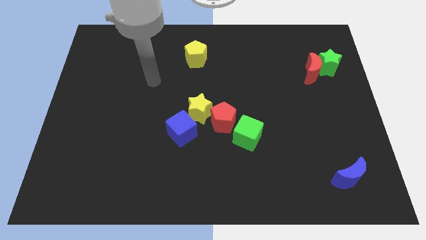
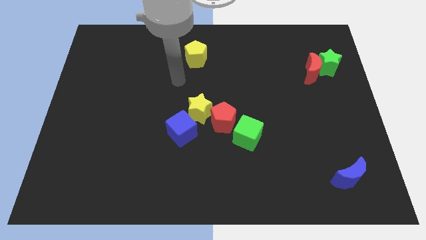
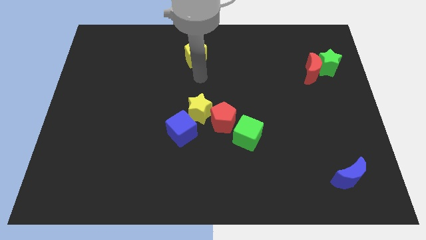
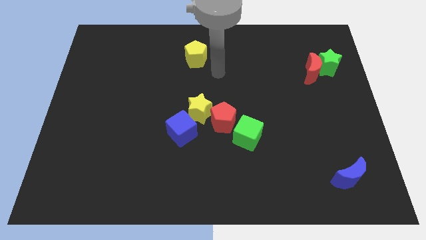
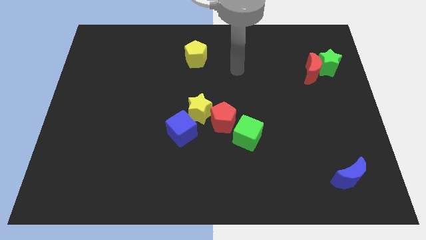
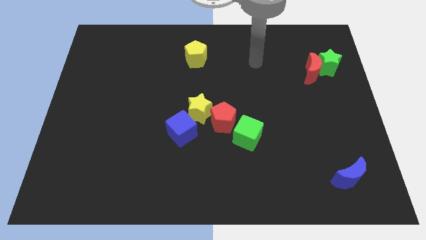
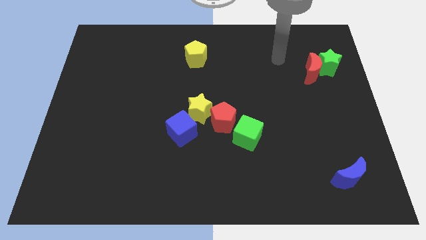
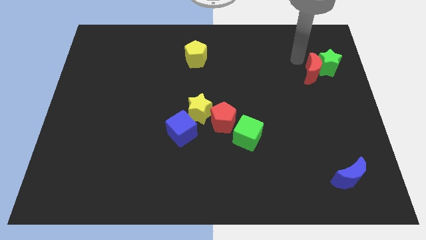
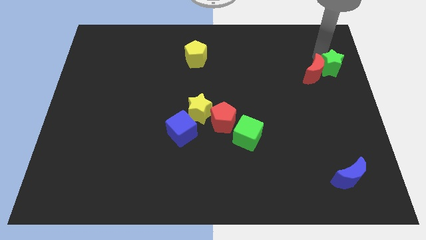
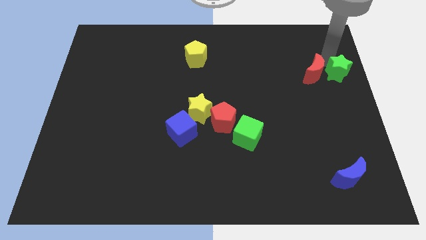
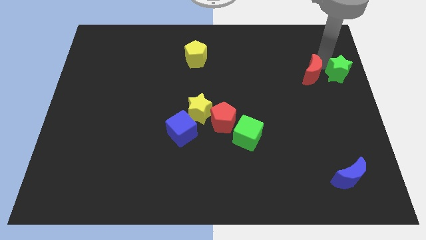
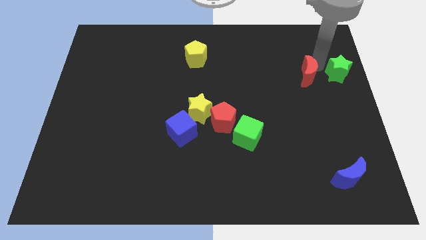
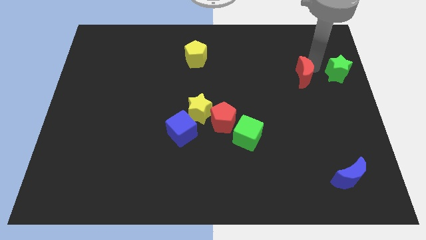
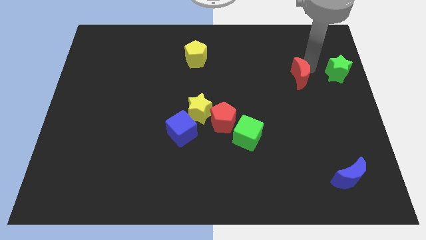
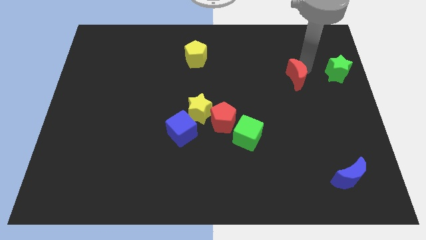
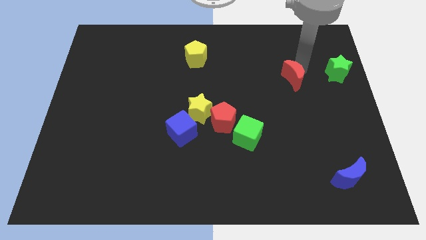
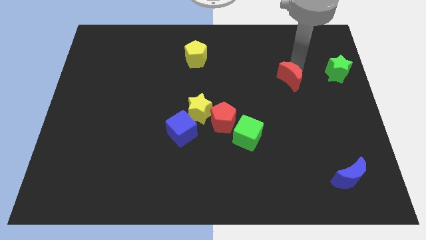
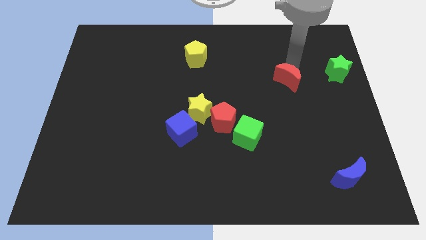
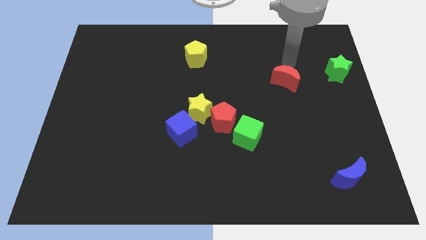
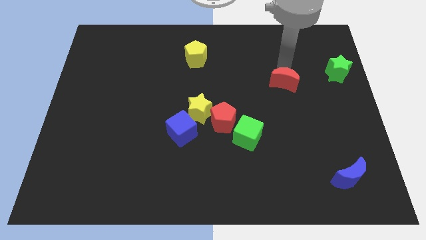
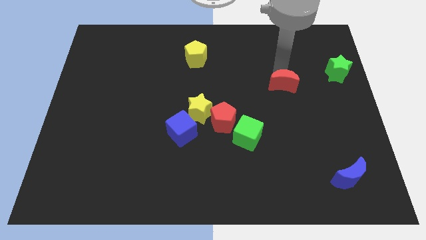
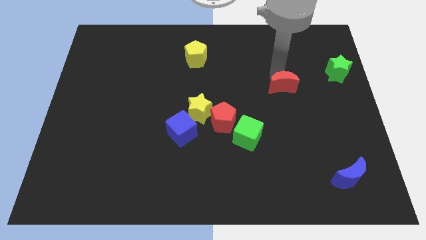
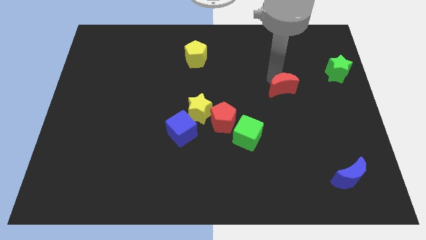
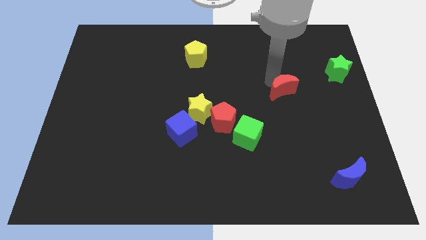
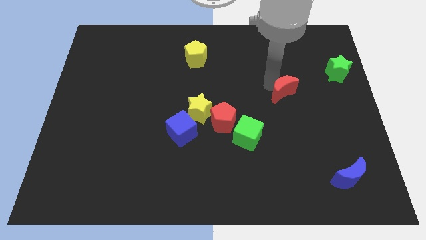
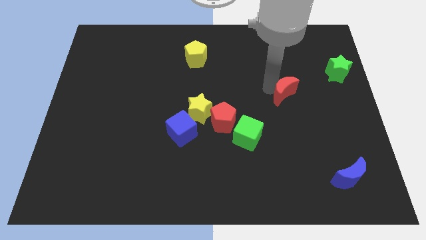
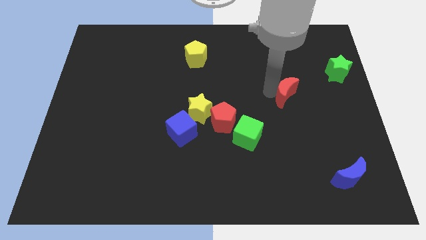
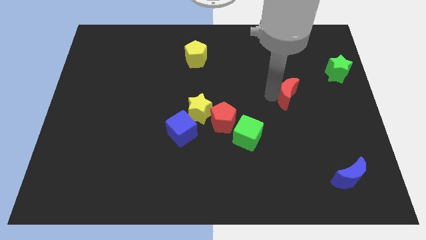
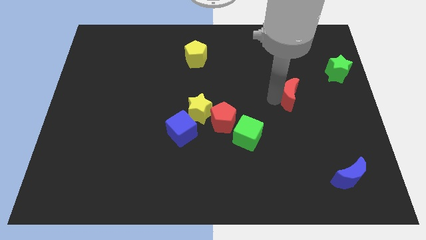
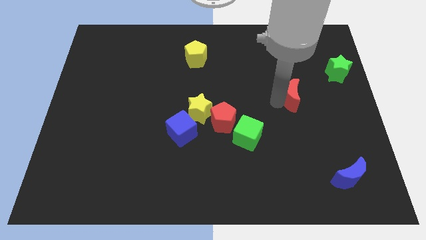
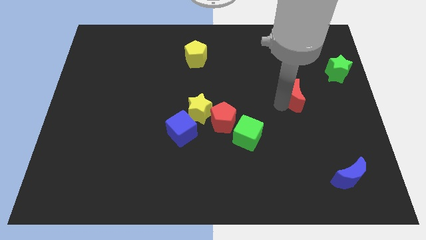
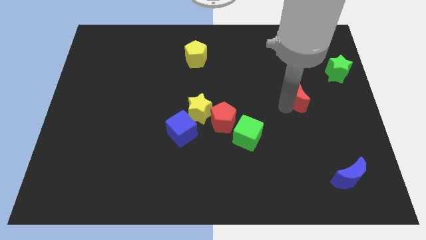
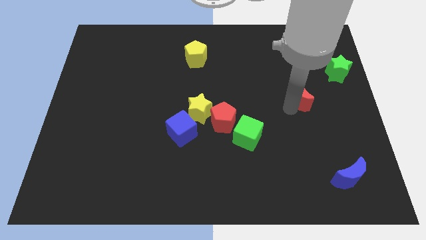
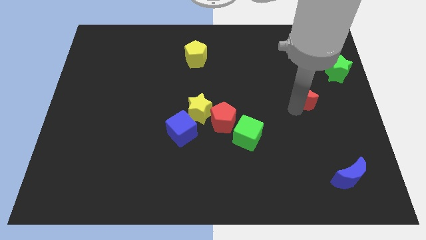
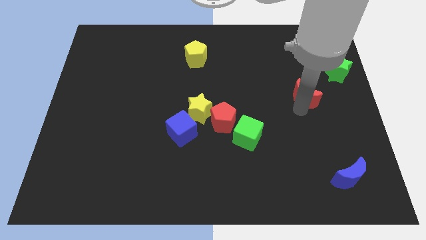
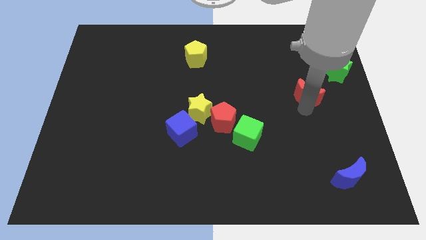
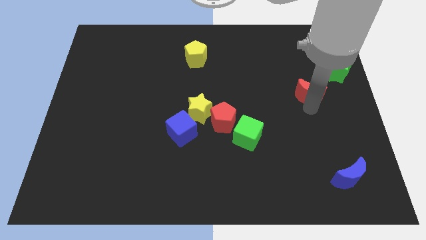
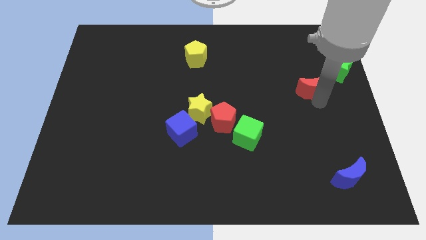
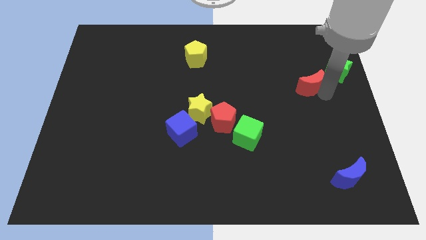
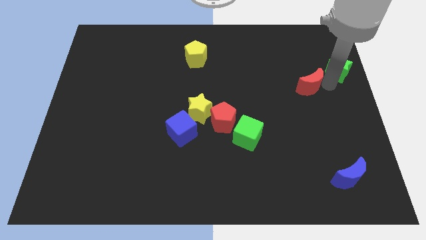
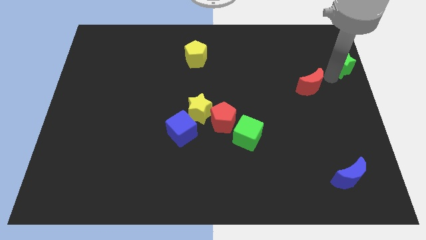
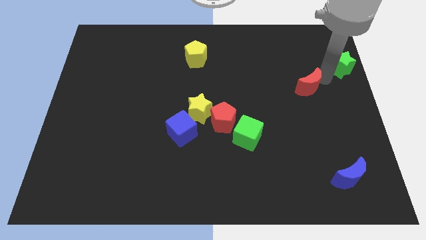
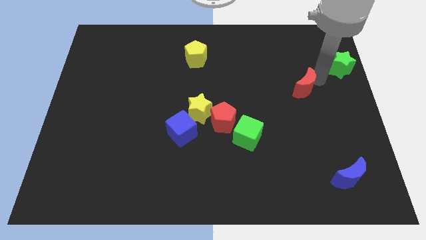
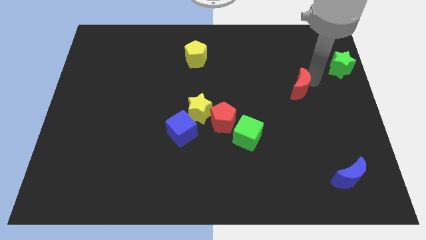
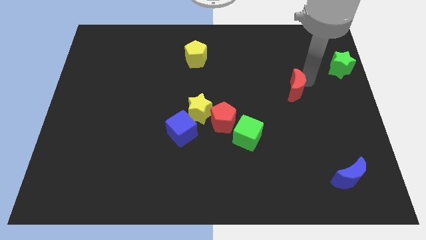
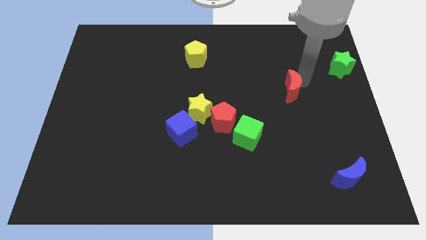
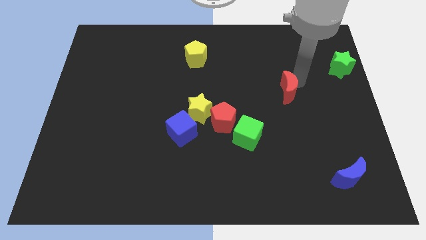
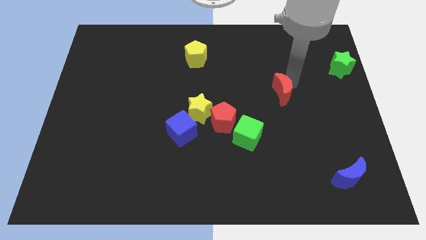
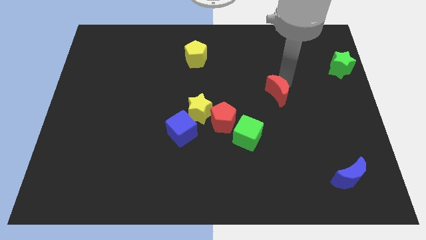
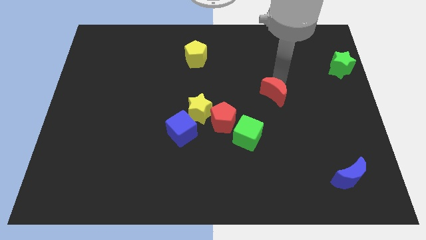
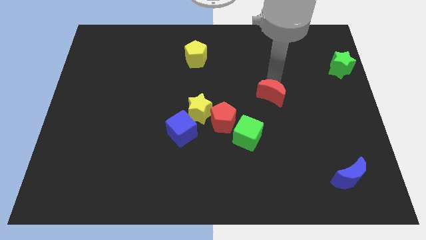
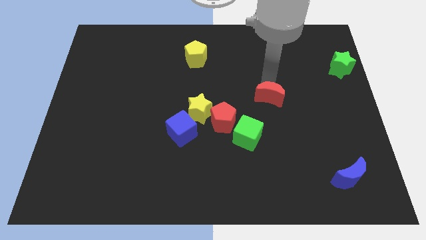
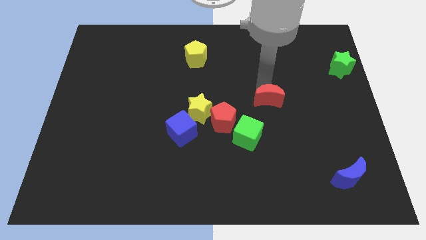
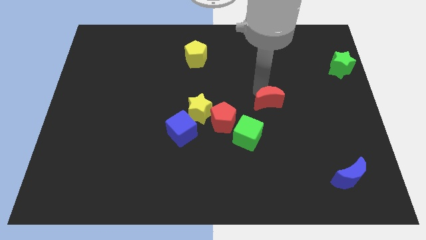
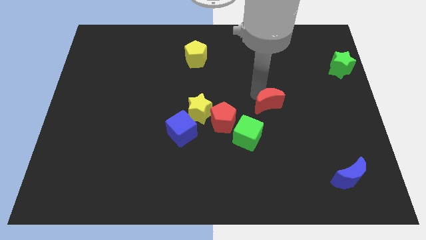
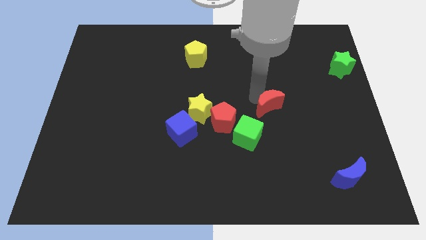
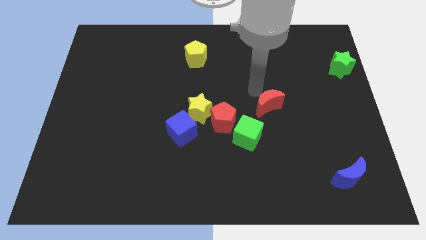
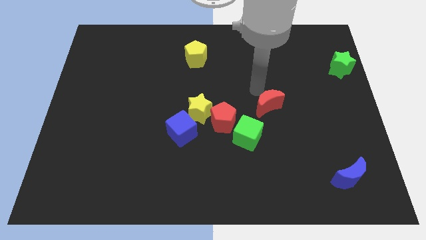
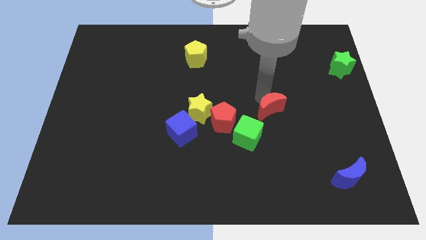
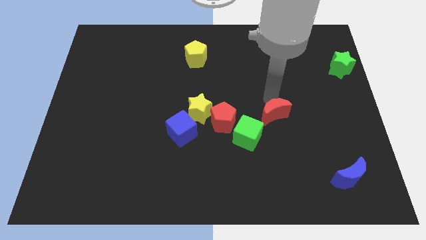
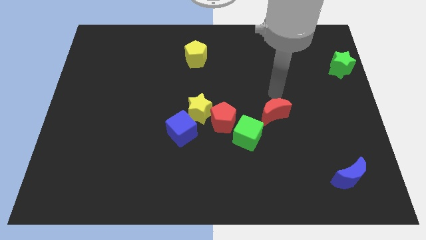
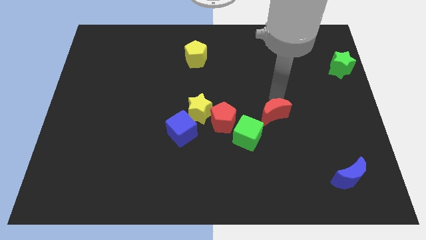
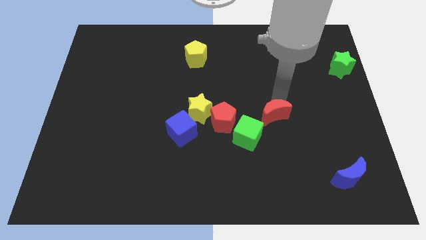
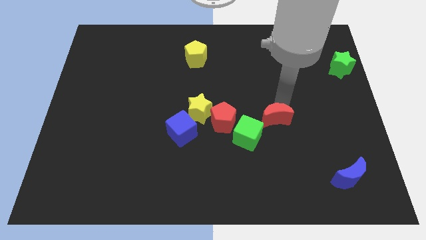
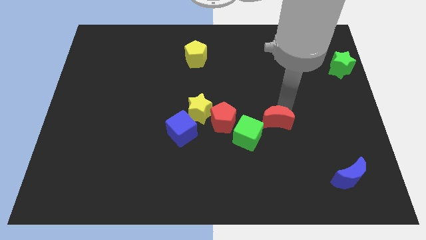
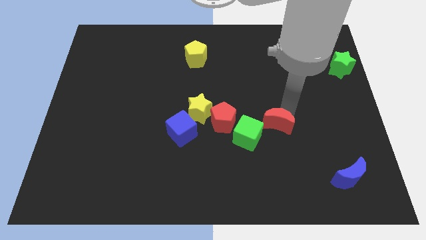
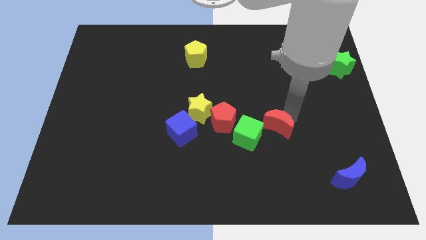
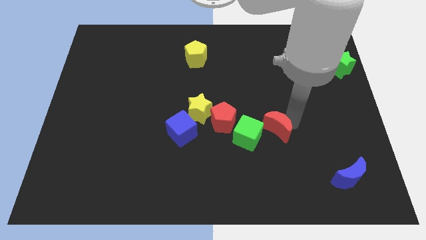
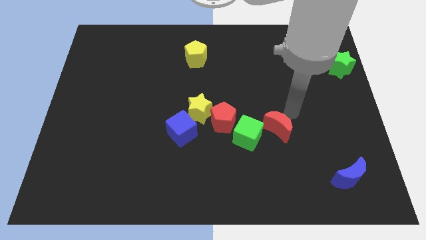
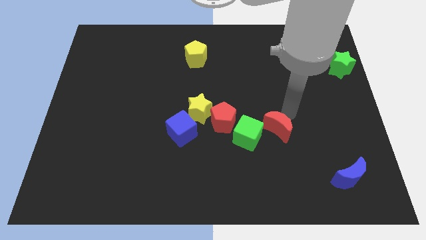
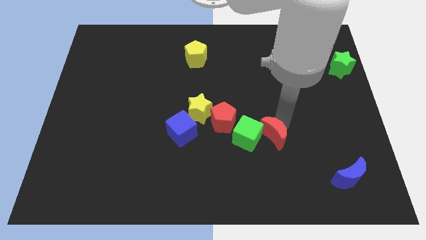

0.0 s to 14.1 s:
slide the red moon down and then to the left

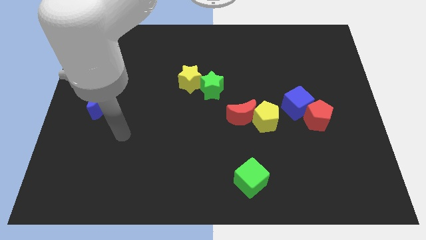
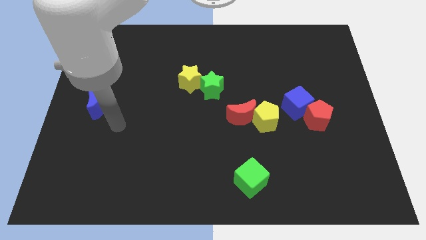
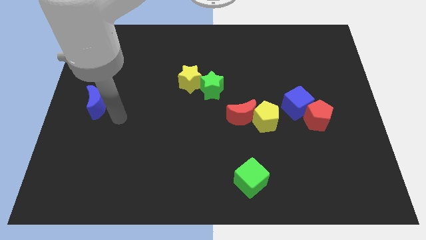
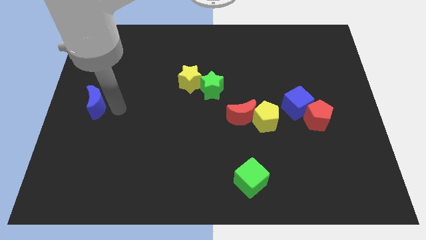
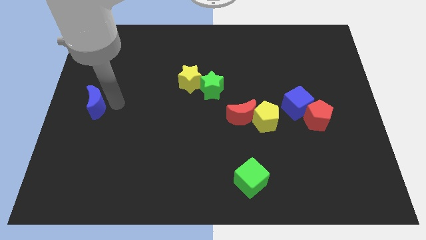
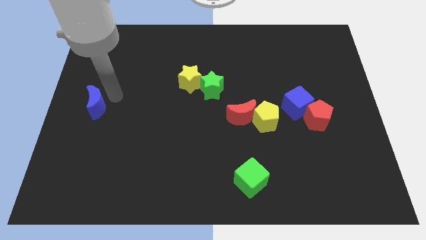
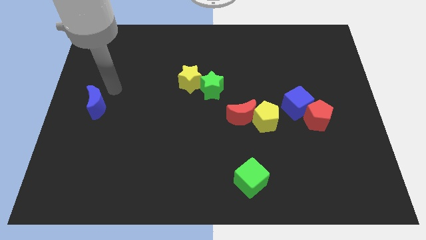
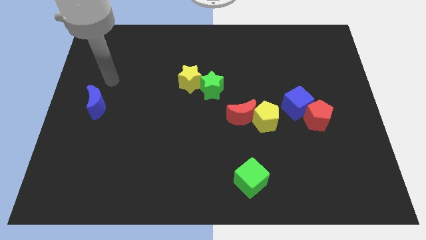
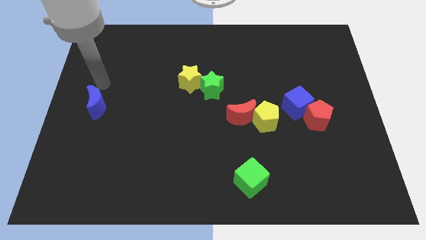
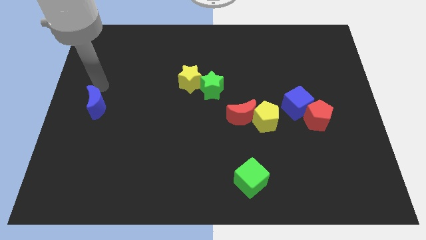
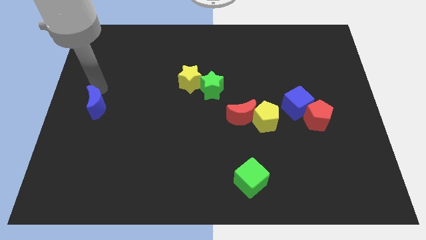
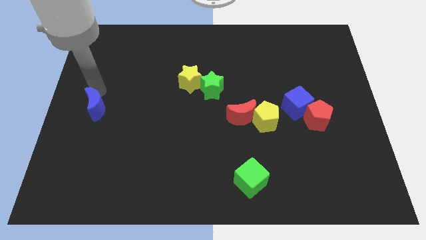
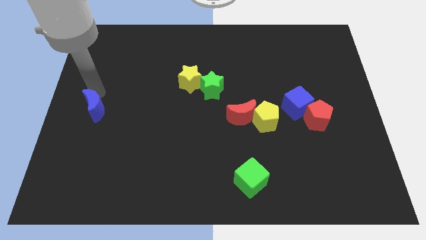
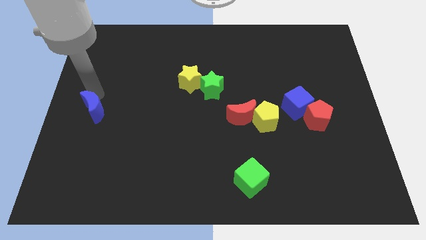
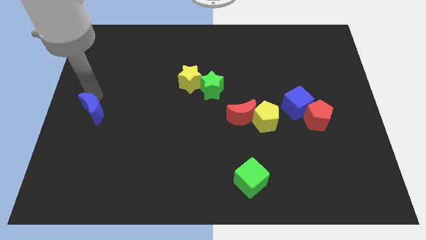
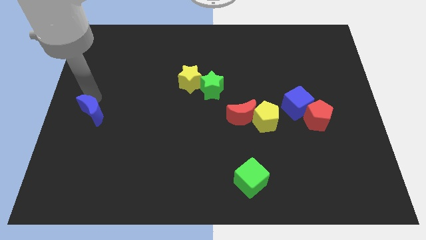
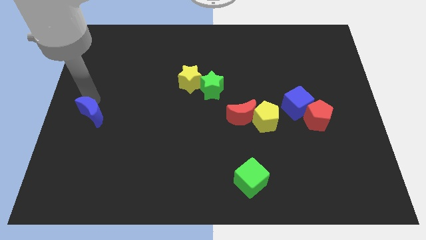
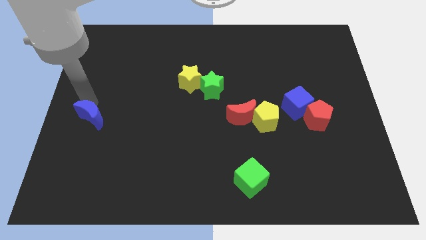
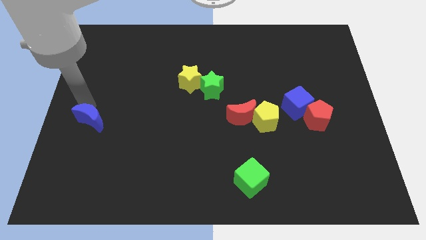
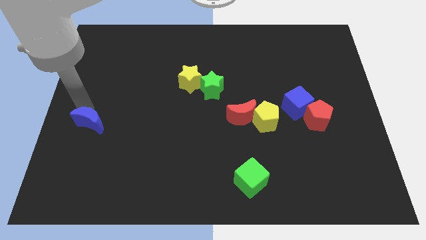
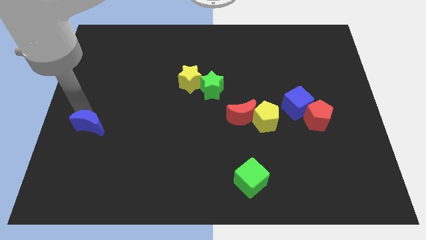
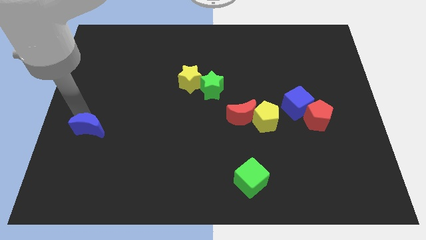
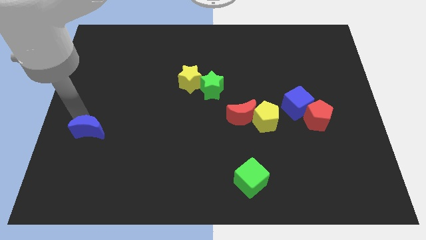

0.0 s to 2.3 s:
slightly push the blue moon down
